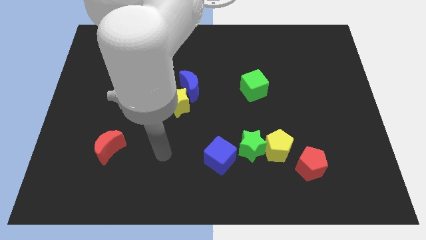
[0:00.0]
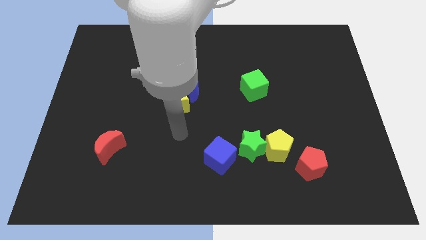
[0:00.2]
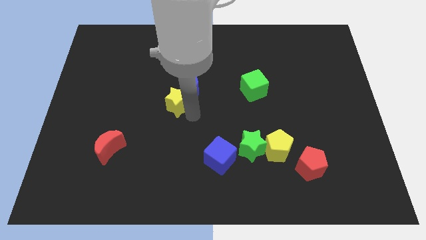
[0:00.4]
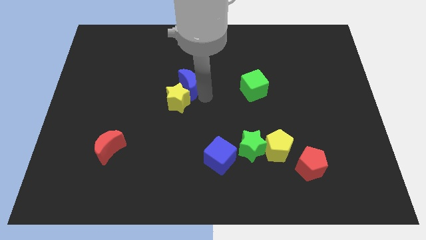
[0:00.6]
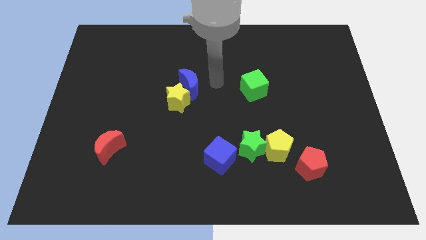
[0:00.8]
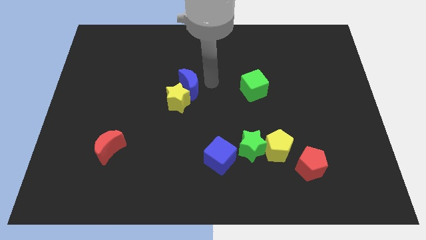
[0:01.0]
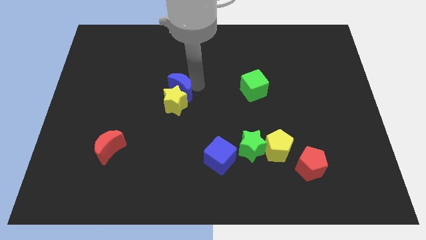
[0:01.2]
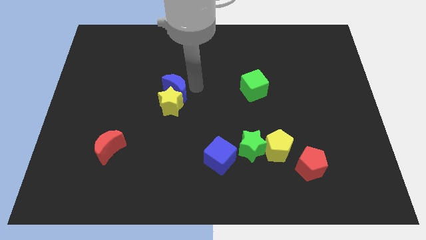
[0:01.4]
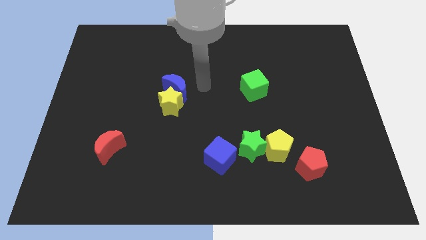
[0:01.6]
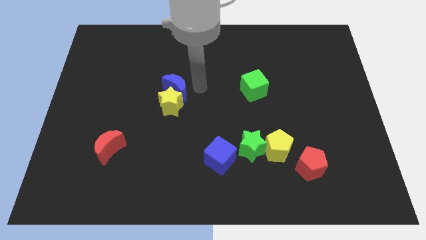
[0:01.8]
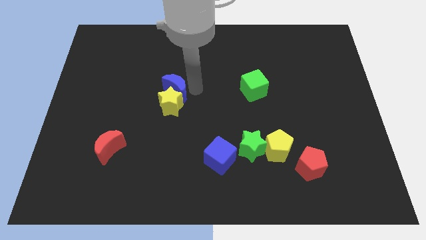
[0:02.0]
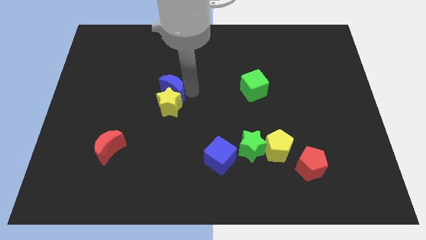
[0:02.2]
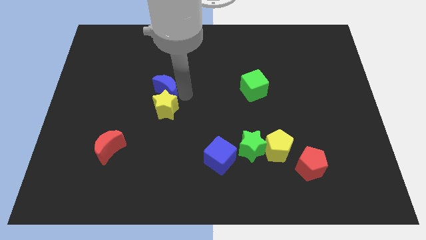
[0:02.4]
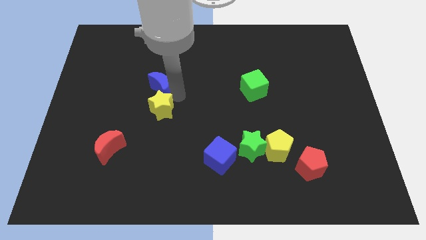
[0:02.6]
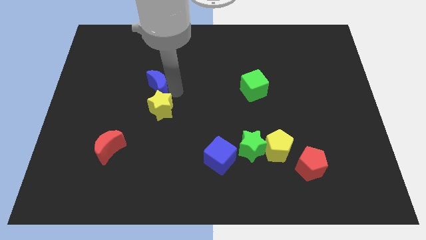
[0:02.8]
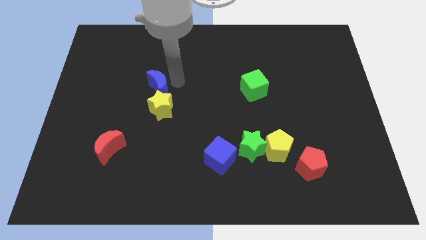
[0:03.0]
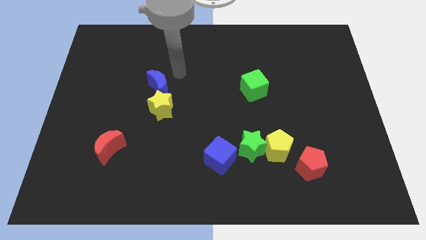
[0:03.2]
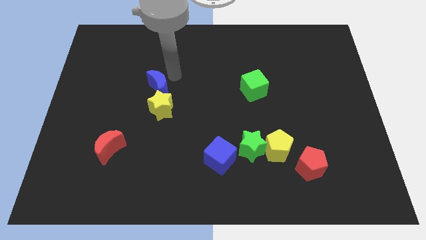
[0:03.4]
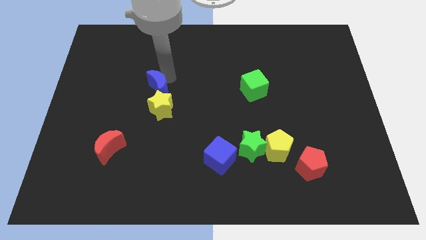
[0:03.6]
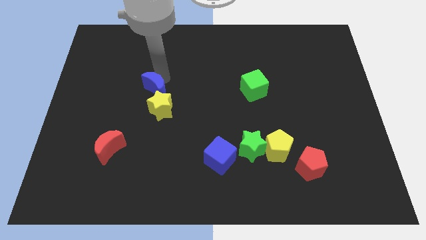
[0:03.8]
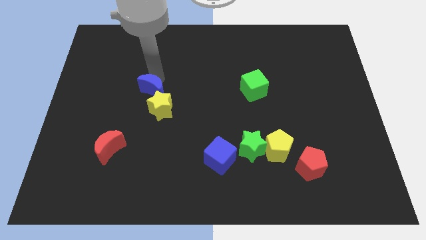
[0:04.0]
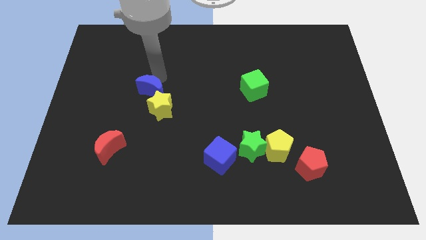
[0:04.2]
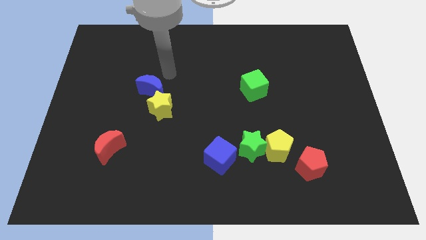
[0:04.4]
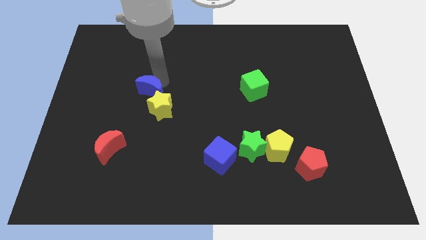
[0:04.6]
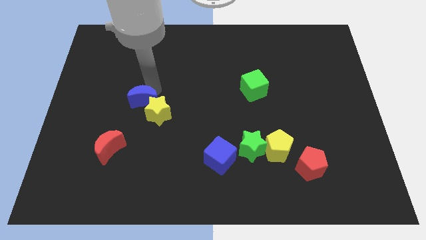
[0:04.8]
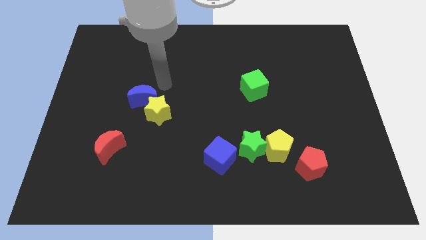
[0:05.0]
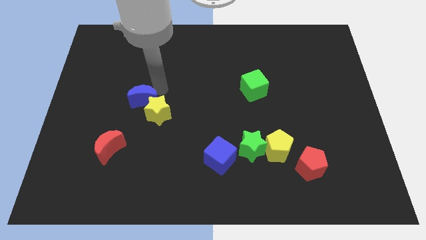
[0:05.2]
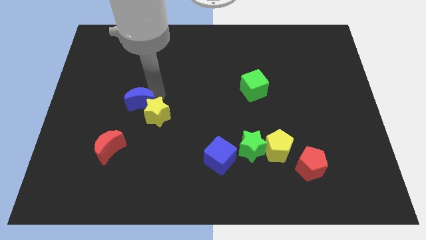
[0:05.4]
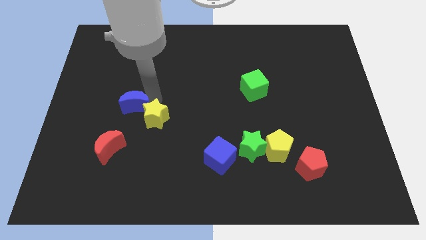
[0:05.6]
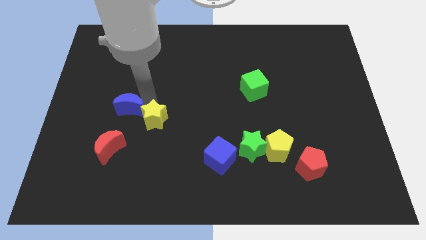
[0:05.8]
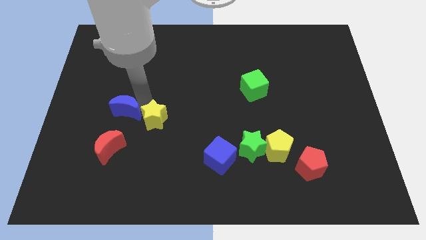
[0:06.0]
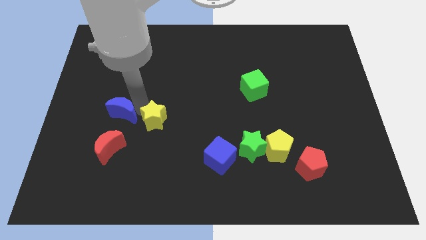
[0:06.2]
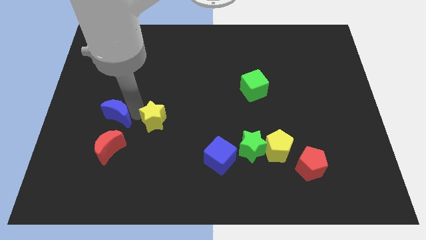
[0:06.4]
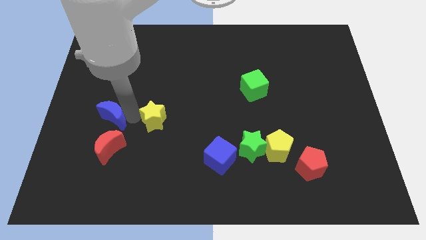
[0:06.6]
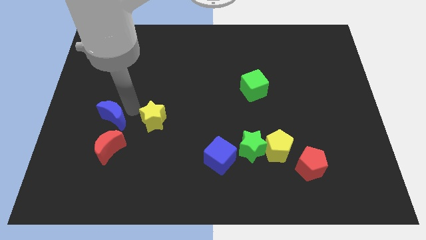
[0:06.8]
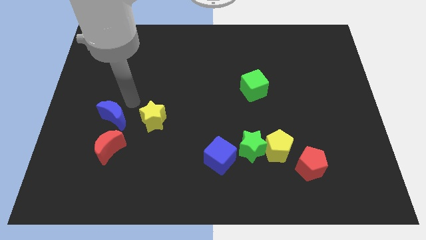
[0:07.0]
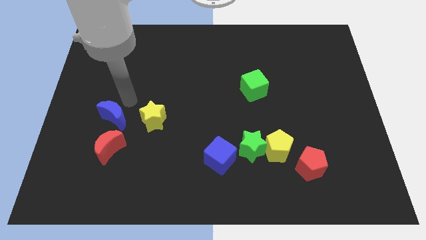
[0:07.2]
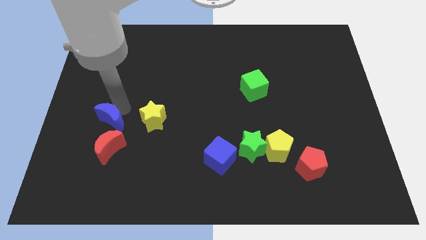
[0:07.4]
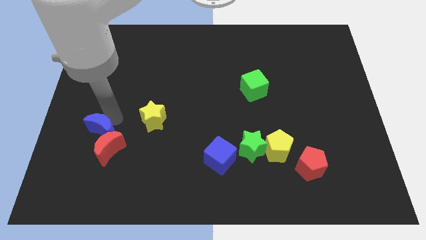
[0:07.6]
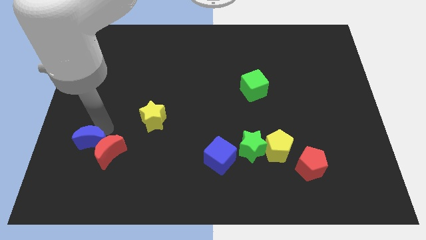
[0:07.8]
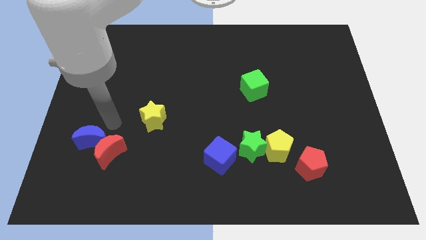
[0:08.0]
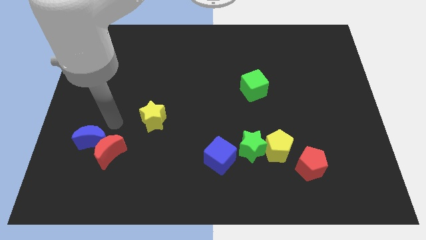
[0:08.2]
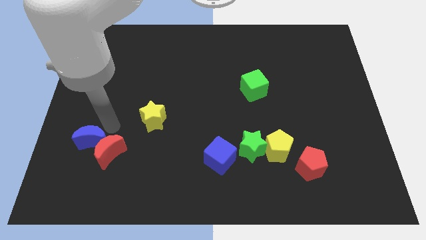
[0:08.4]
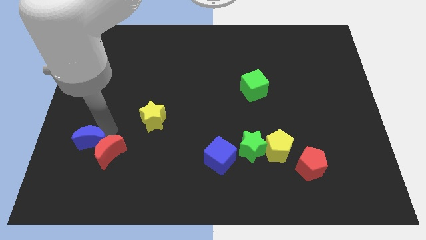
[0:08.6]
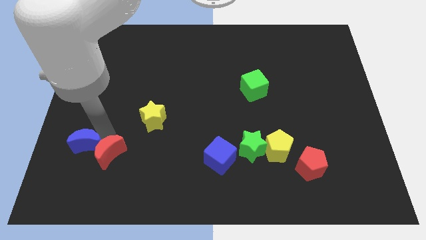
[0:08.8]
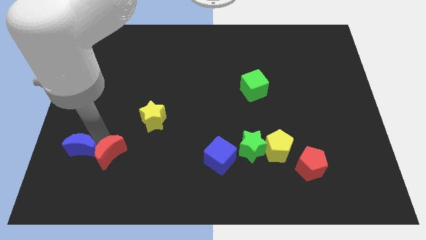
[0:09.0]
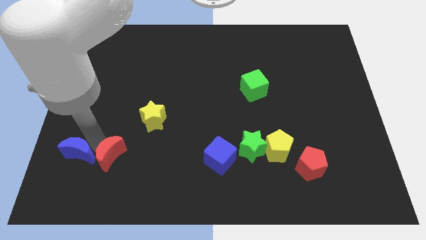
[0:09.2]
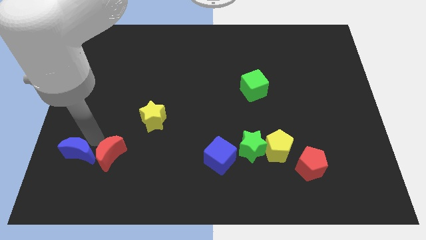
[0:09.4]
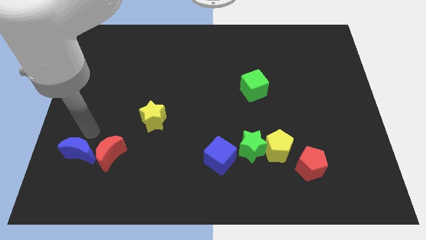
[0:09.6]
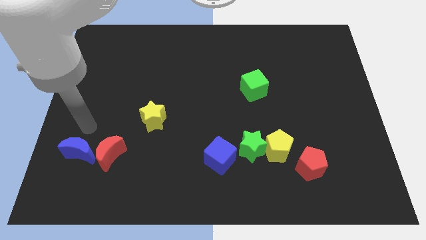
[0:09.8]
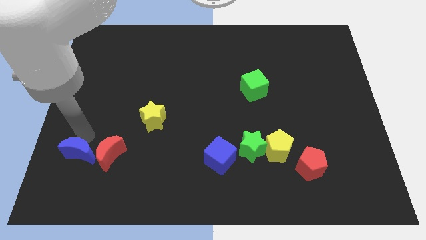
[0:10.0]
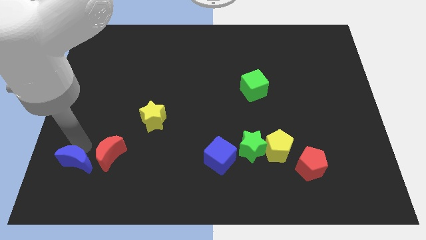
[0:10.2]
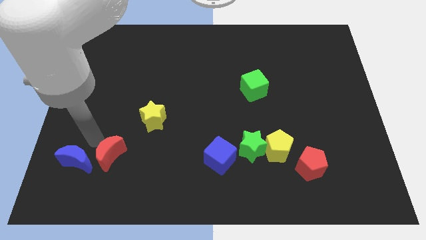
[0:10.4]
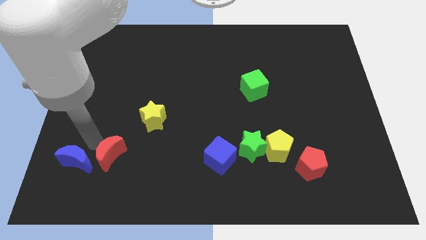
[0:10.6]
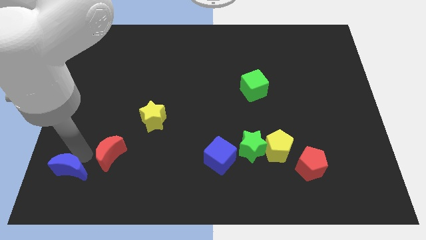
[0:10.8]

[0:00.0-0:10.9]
put the blue moon to the bottom left
